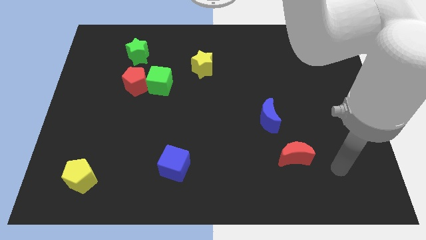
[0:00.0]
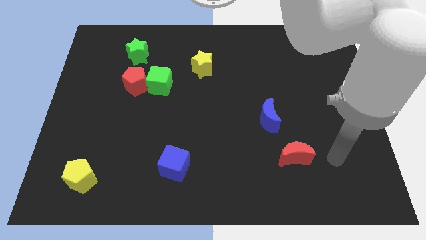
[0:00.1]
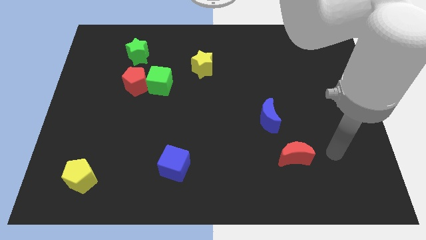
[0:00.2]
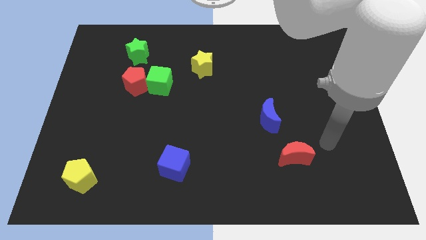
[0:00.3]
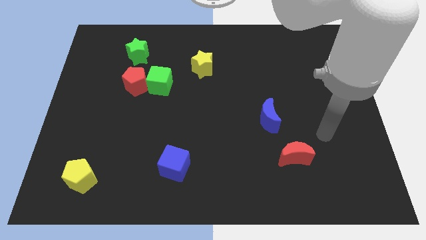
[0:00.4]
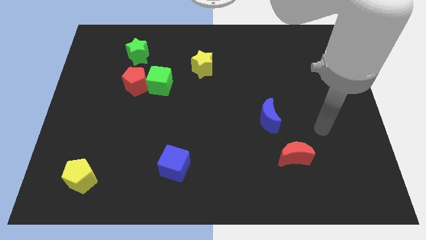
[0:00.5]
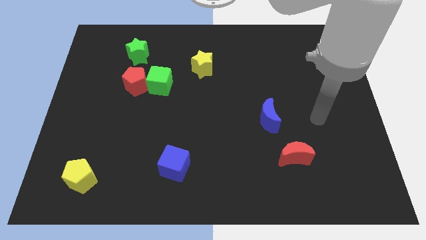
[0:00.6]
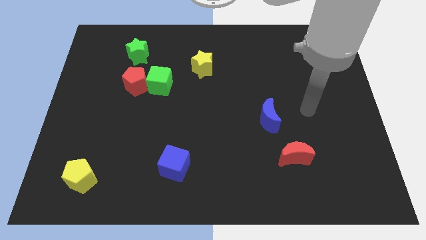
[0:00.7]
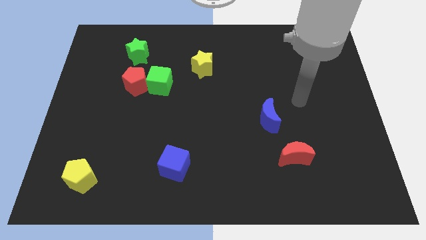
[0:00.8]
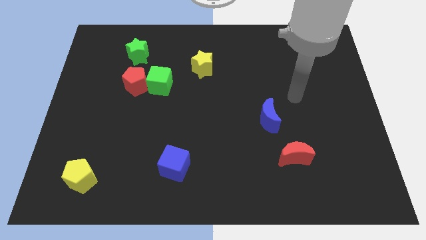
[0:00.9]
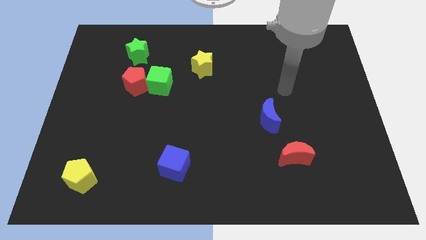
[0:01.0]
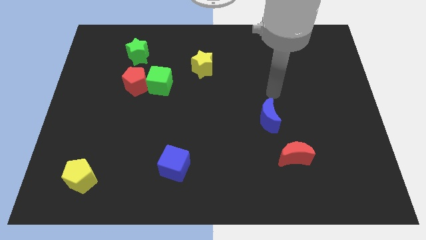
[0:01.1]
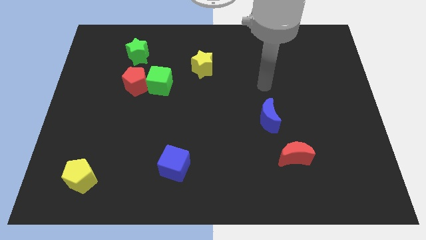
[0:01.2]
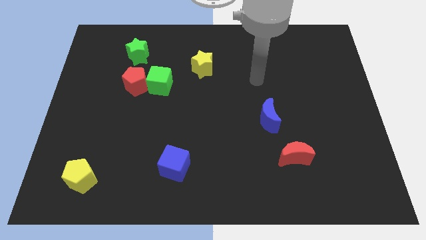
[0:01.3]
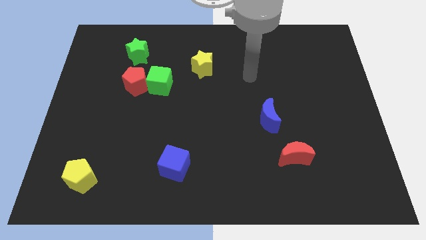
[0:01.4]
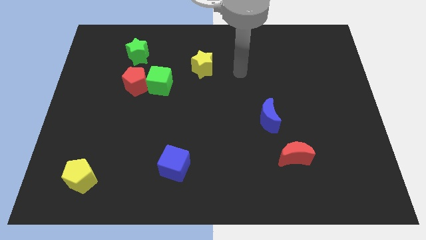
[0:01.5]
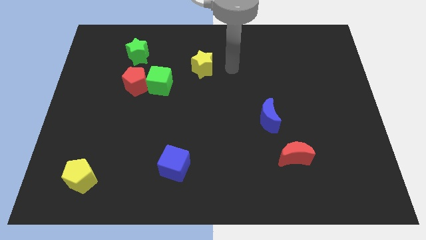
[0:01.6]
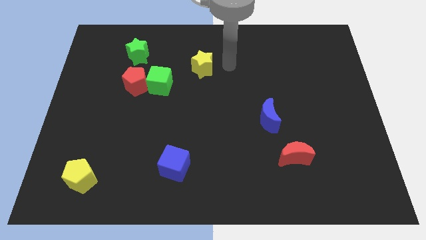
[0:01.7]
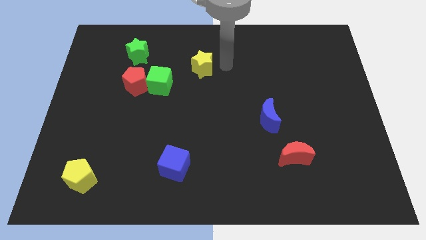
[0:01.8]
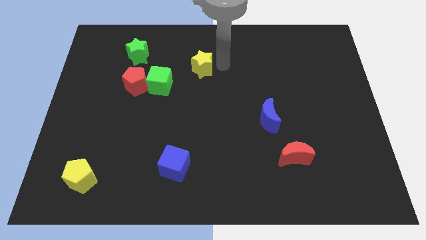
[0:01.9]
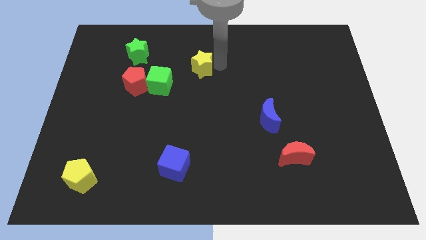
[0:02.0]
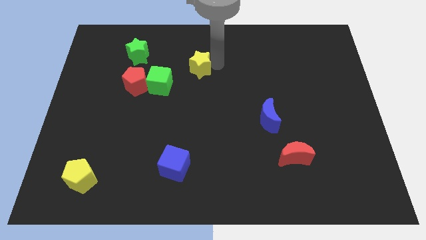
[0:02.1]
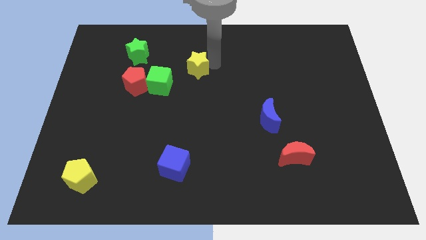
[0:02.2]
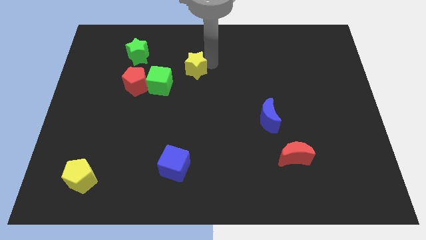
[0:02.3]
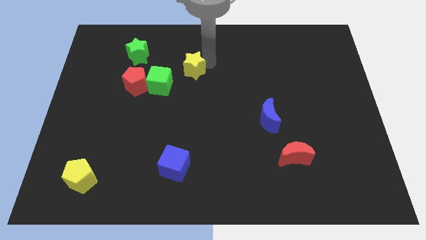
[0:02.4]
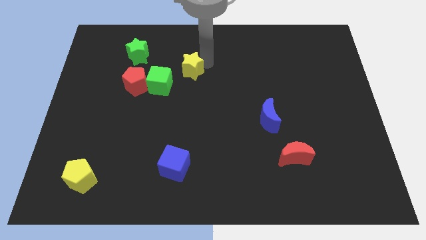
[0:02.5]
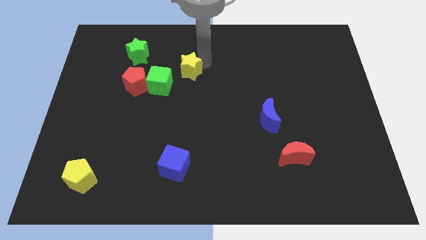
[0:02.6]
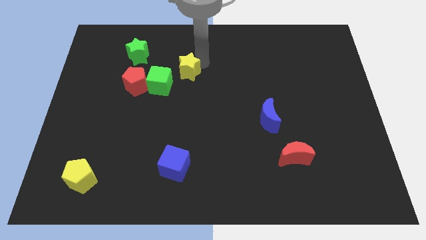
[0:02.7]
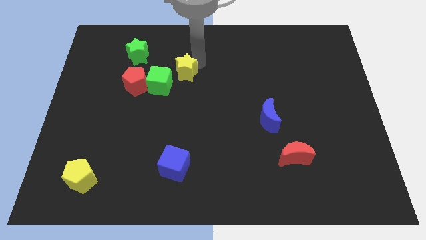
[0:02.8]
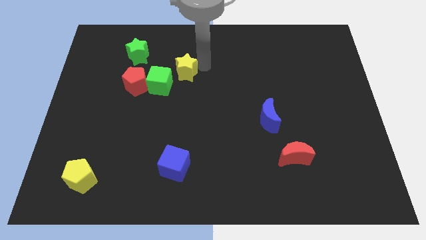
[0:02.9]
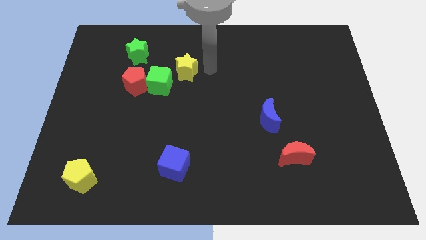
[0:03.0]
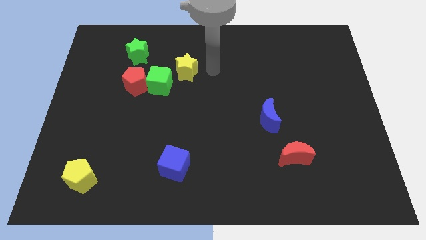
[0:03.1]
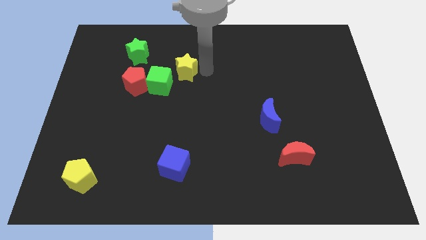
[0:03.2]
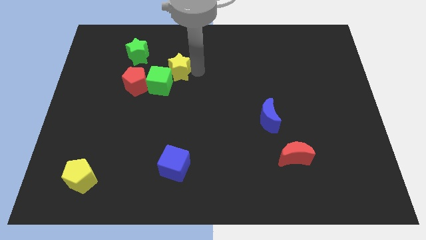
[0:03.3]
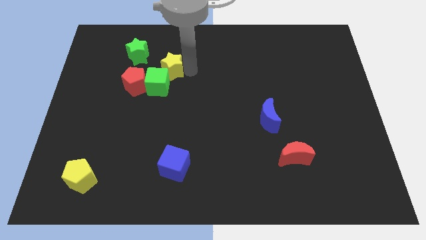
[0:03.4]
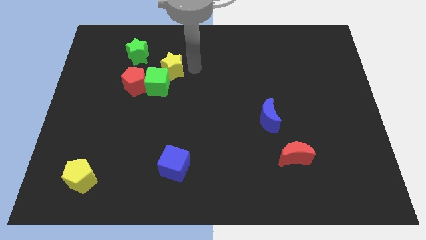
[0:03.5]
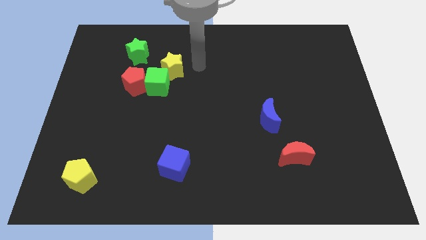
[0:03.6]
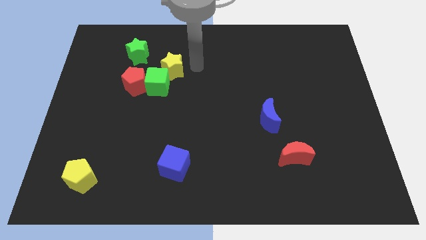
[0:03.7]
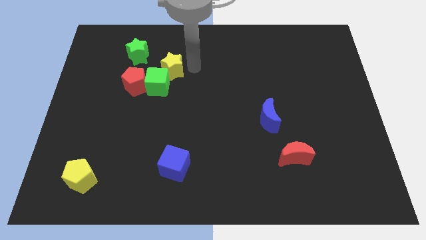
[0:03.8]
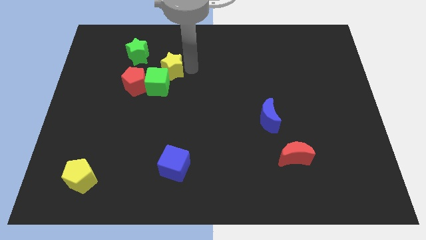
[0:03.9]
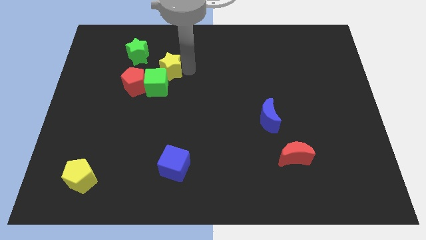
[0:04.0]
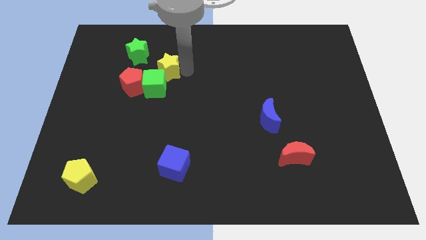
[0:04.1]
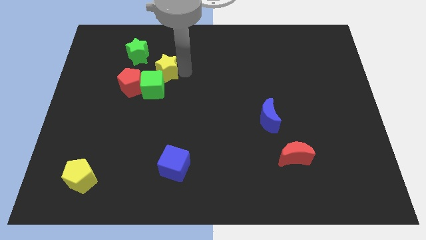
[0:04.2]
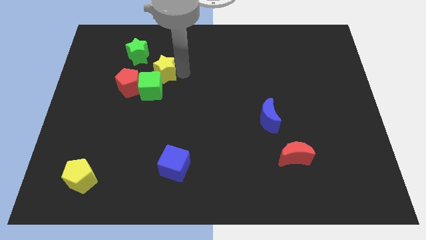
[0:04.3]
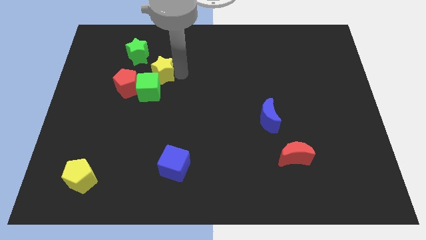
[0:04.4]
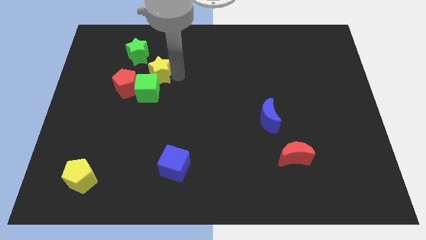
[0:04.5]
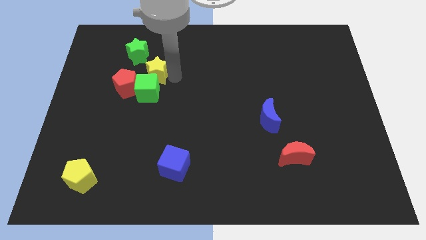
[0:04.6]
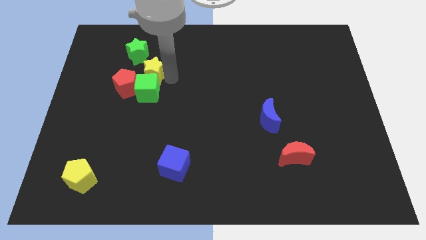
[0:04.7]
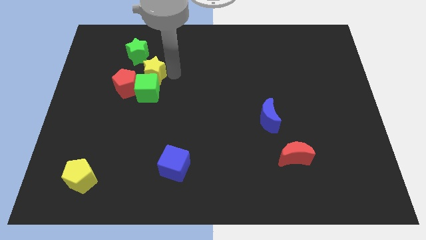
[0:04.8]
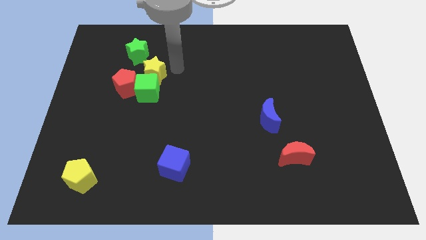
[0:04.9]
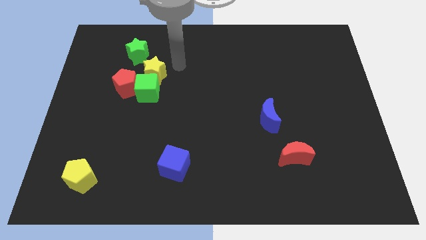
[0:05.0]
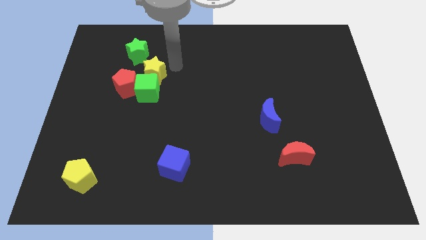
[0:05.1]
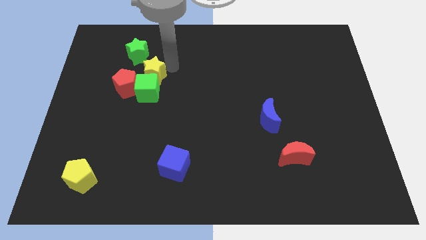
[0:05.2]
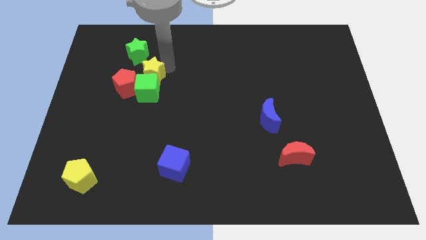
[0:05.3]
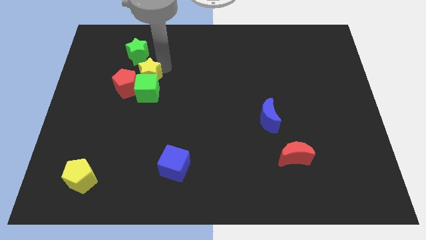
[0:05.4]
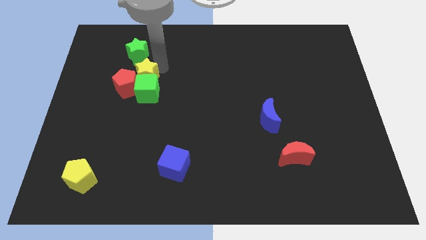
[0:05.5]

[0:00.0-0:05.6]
slide the yellow star to the red pentagon

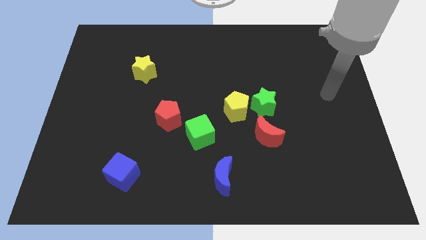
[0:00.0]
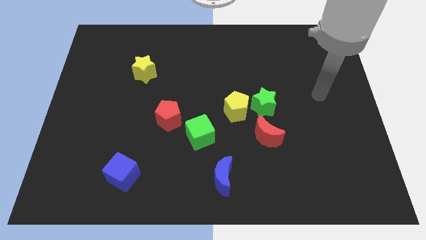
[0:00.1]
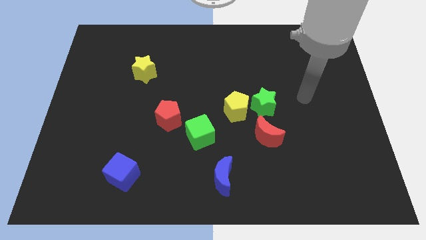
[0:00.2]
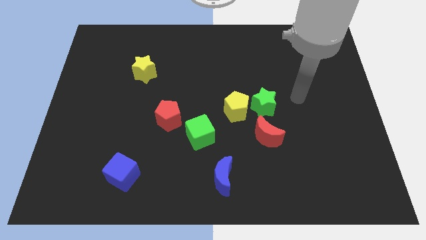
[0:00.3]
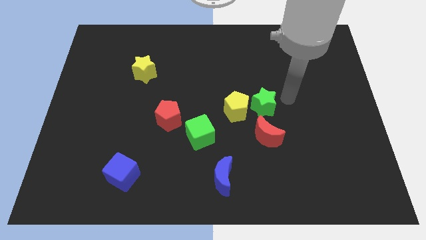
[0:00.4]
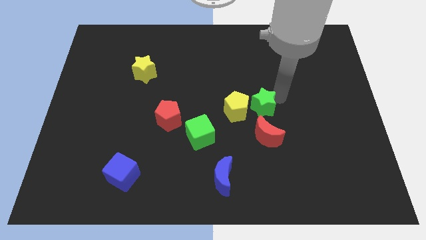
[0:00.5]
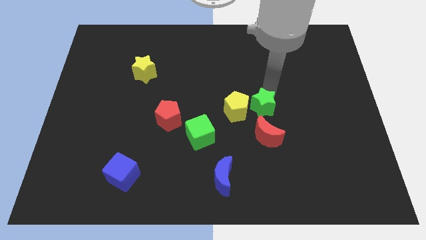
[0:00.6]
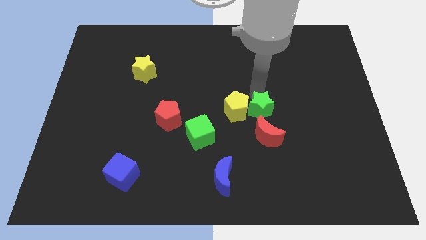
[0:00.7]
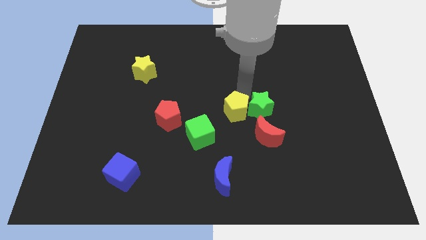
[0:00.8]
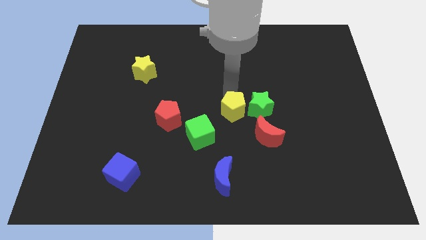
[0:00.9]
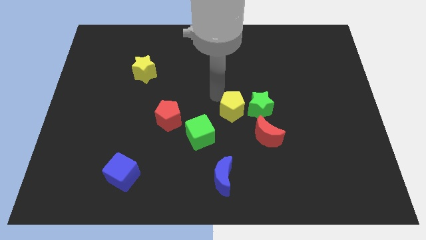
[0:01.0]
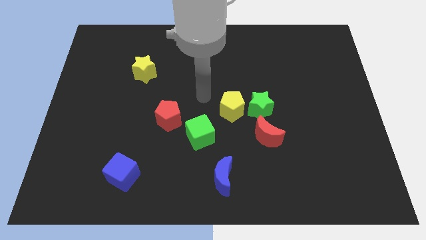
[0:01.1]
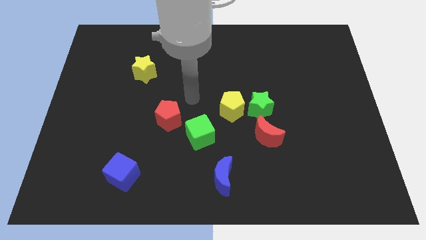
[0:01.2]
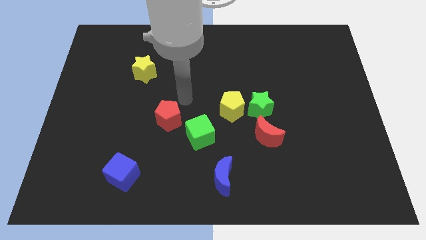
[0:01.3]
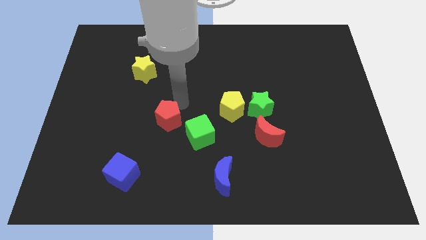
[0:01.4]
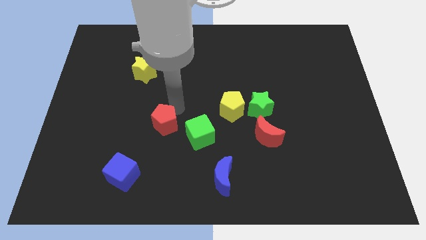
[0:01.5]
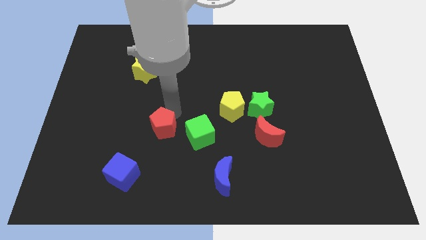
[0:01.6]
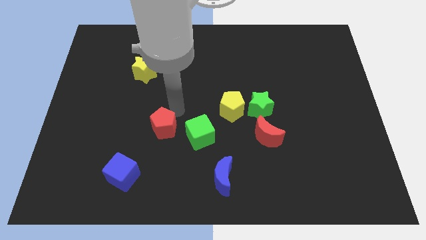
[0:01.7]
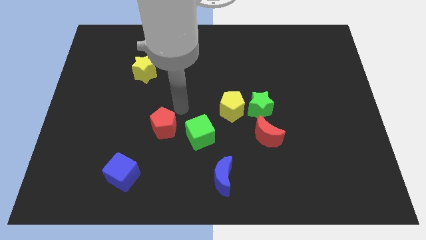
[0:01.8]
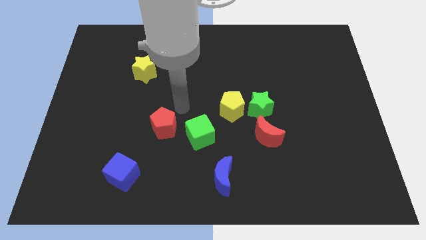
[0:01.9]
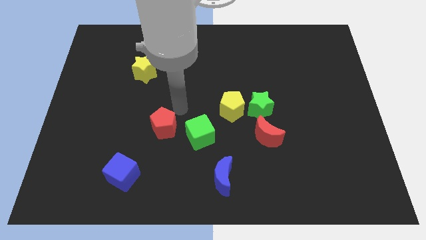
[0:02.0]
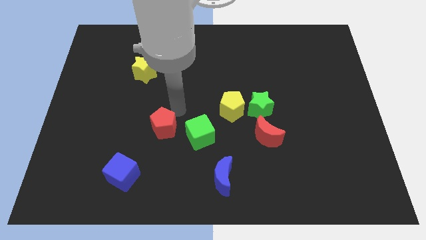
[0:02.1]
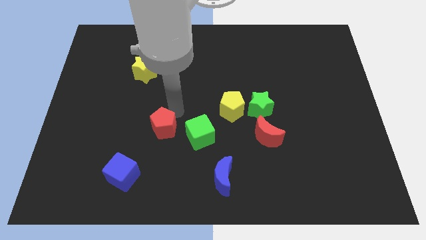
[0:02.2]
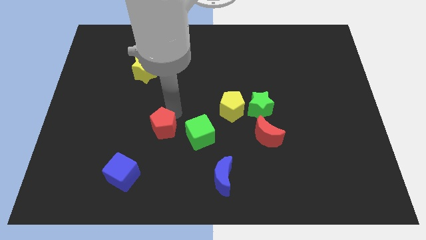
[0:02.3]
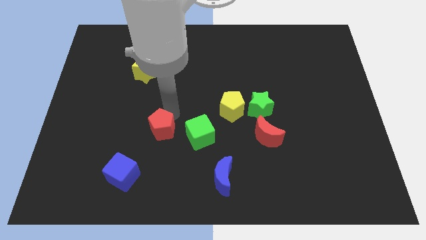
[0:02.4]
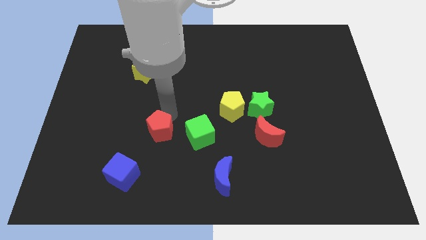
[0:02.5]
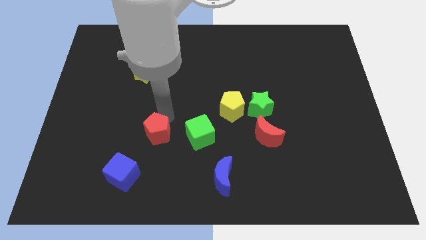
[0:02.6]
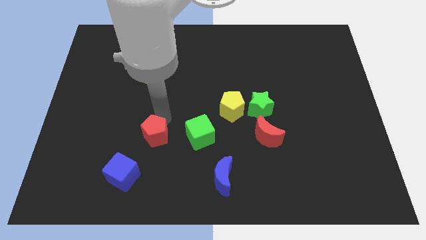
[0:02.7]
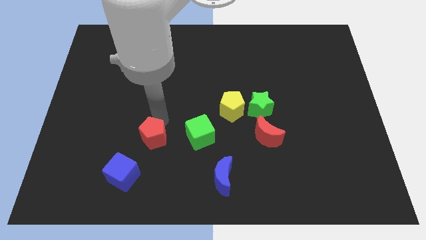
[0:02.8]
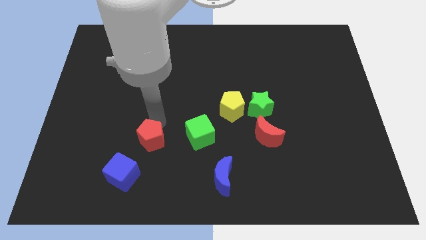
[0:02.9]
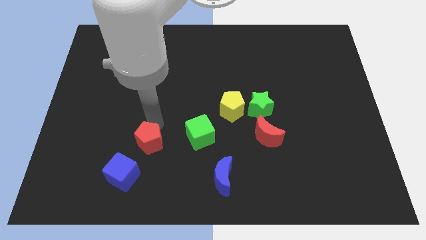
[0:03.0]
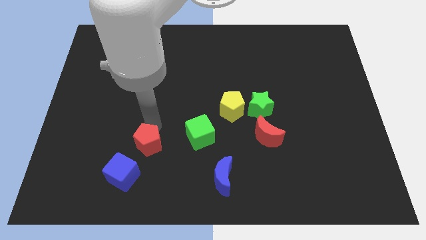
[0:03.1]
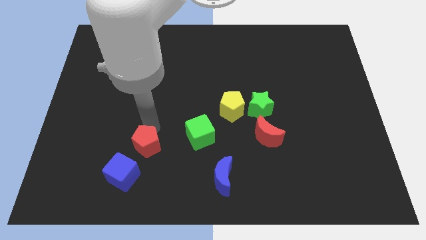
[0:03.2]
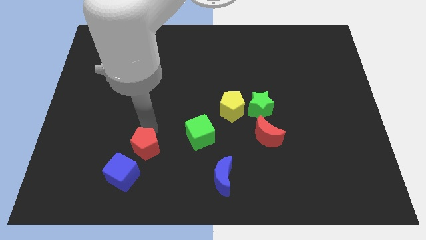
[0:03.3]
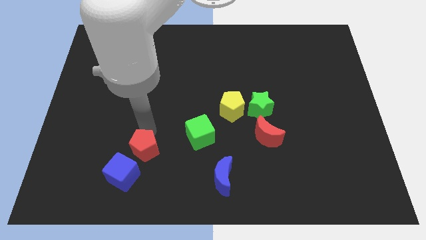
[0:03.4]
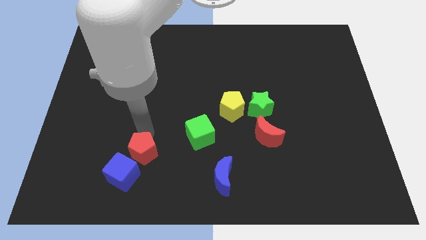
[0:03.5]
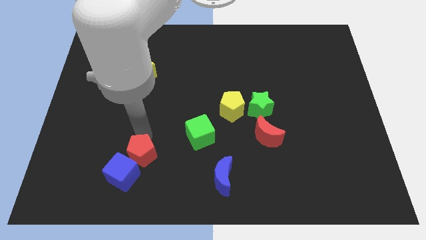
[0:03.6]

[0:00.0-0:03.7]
slide the red pentagon towards the blue cube
